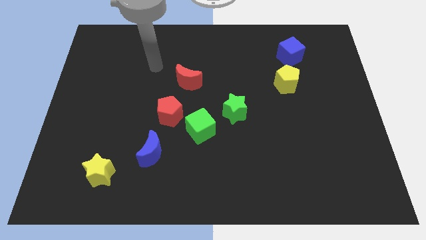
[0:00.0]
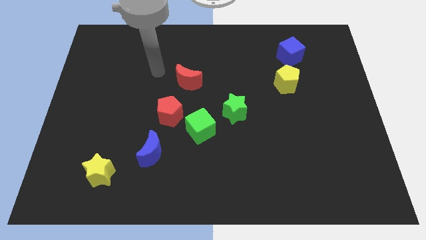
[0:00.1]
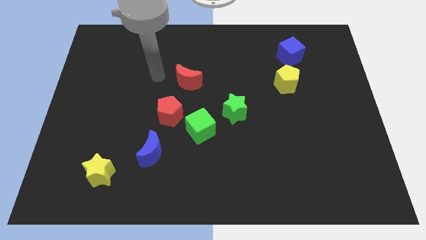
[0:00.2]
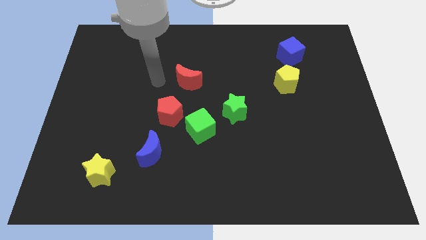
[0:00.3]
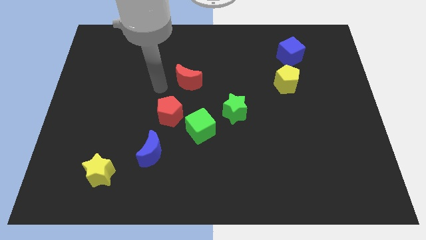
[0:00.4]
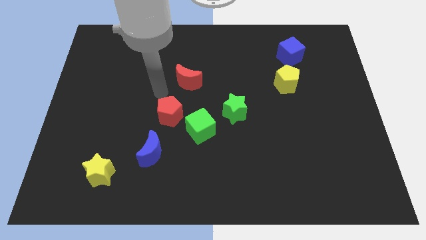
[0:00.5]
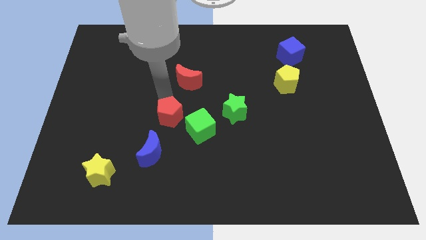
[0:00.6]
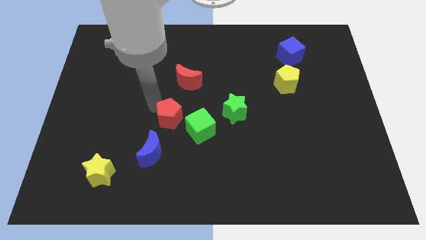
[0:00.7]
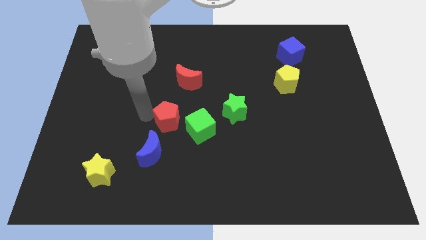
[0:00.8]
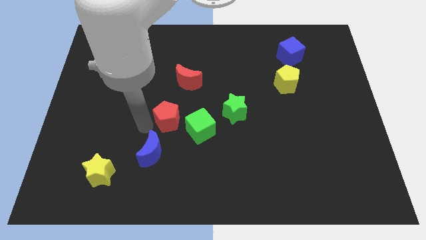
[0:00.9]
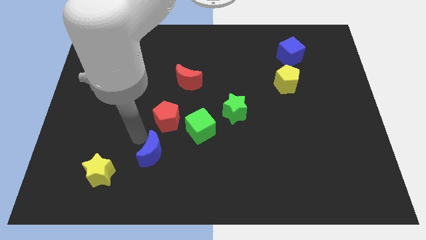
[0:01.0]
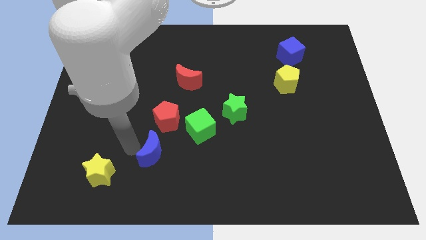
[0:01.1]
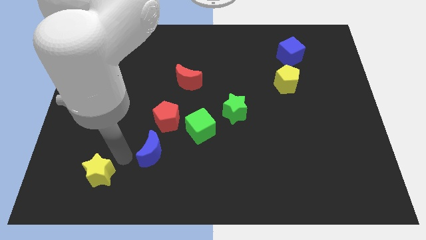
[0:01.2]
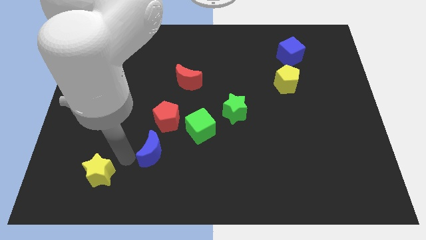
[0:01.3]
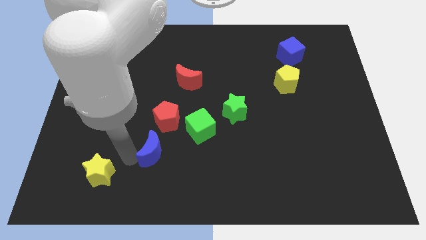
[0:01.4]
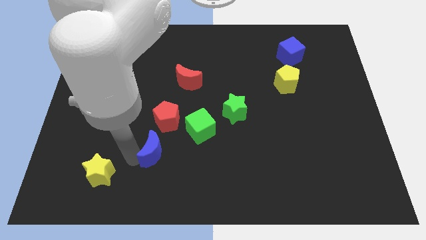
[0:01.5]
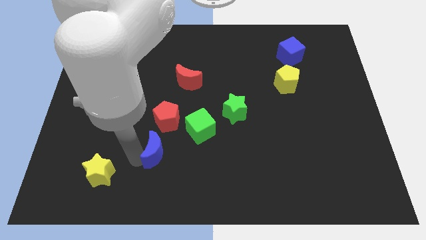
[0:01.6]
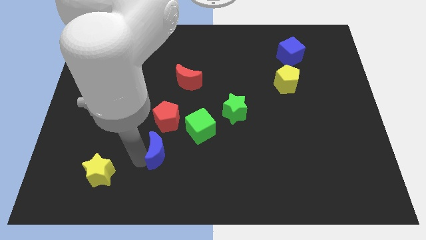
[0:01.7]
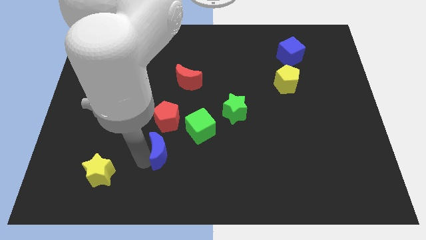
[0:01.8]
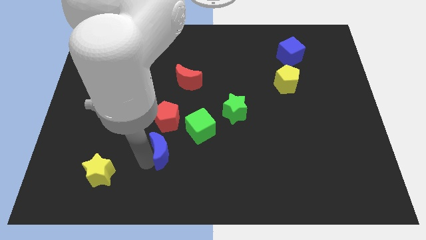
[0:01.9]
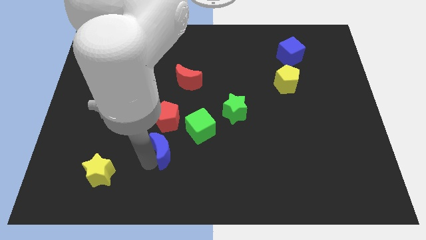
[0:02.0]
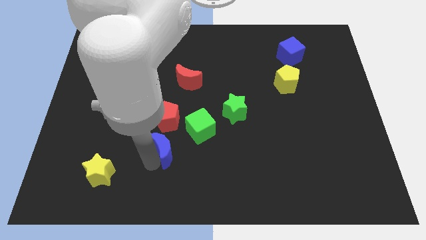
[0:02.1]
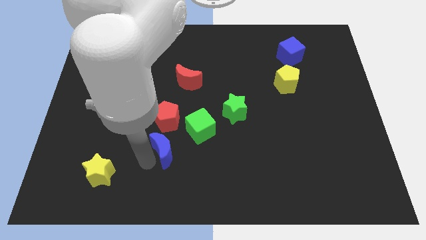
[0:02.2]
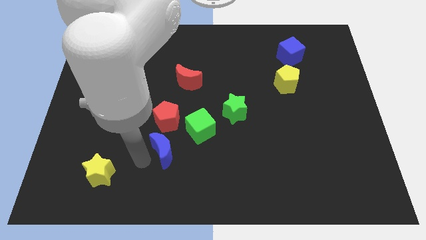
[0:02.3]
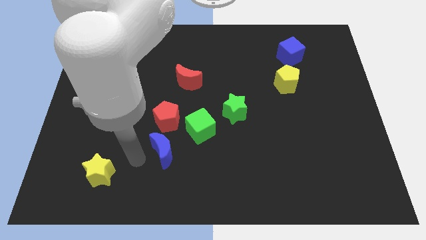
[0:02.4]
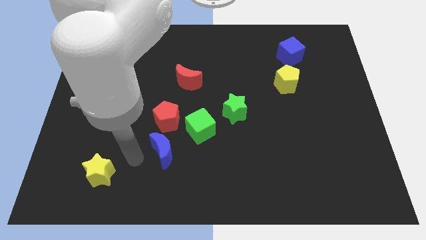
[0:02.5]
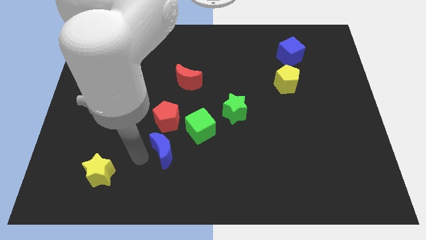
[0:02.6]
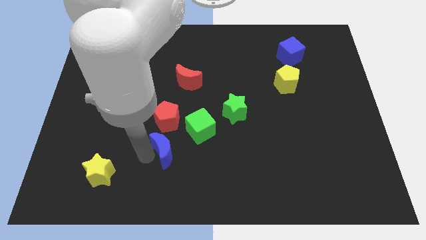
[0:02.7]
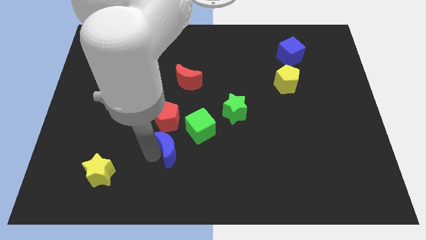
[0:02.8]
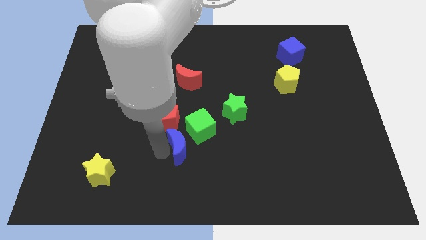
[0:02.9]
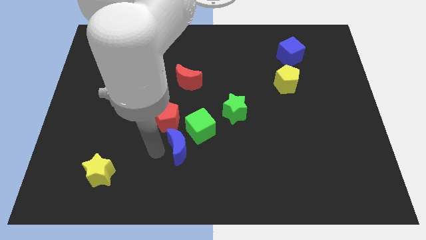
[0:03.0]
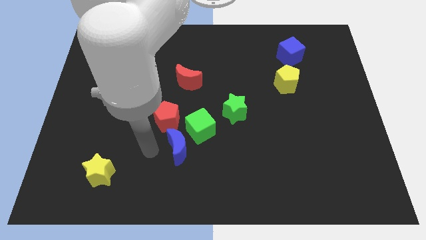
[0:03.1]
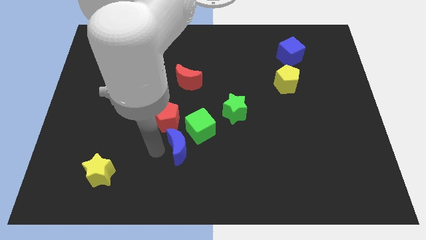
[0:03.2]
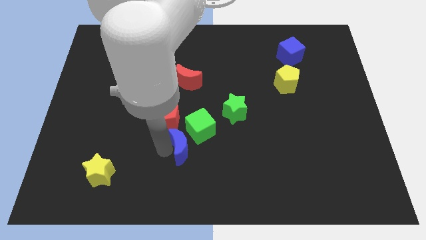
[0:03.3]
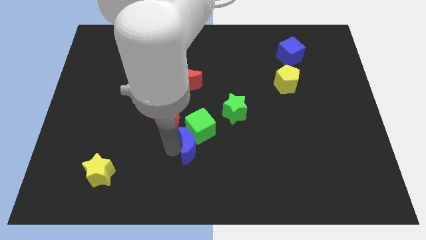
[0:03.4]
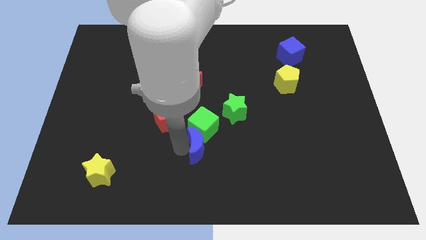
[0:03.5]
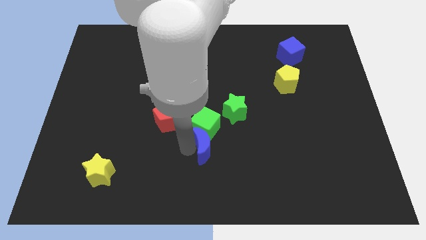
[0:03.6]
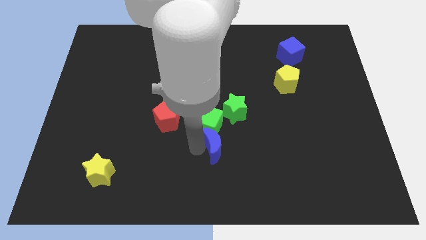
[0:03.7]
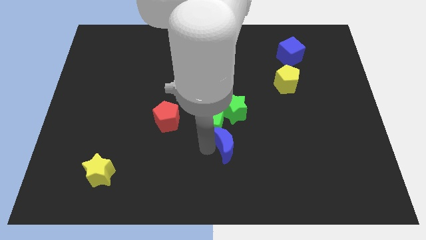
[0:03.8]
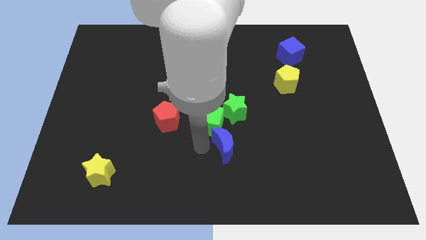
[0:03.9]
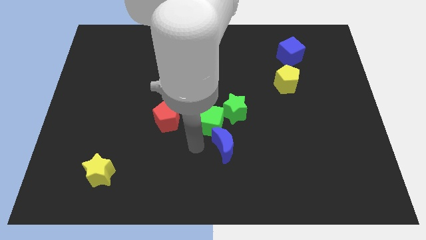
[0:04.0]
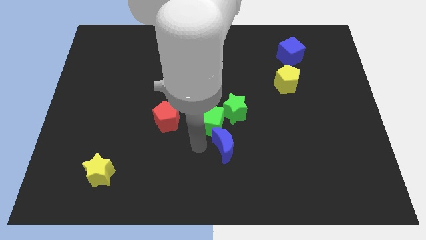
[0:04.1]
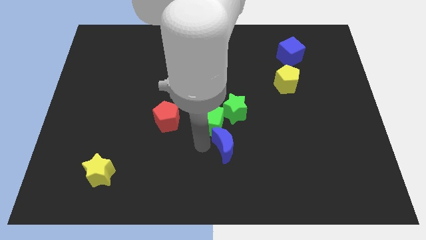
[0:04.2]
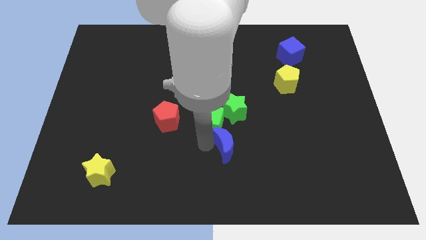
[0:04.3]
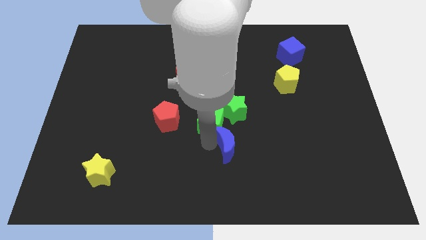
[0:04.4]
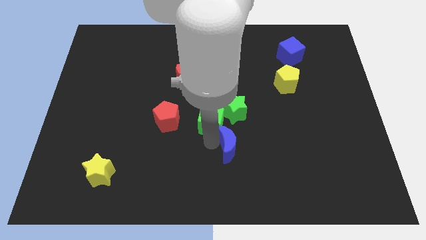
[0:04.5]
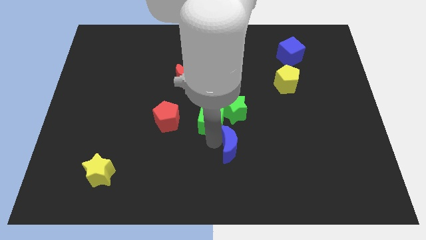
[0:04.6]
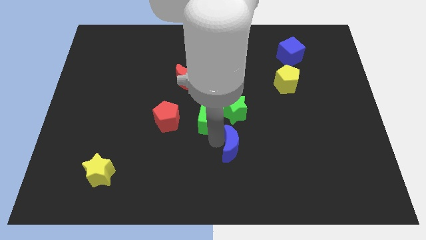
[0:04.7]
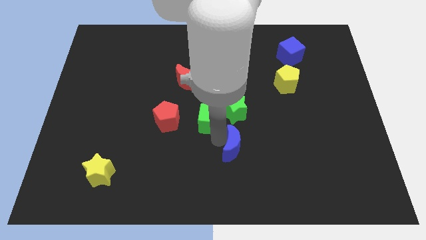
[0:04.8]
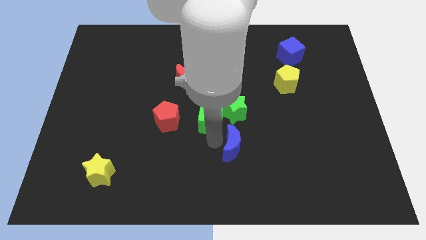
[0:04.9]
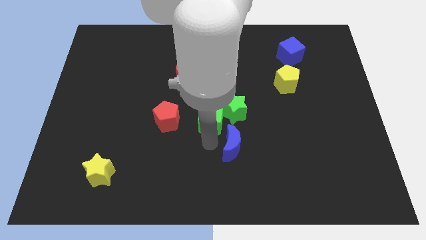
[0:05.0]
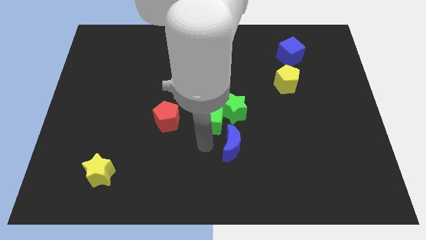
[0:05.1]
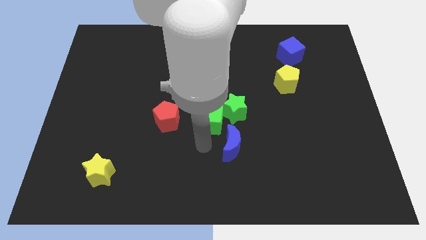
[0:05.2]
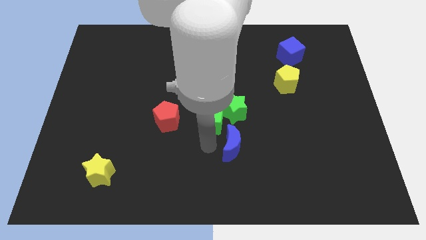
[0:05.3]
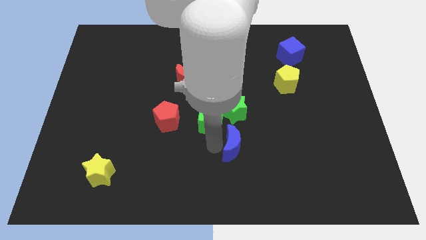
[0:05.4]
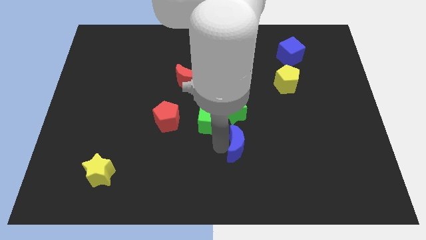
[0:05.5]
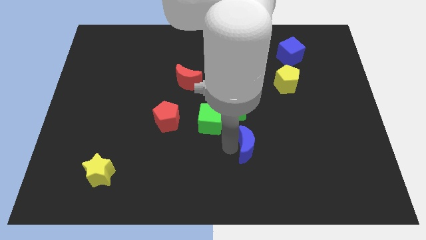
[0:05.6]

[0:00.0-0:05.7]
slide the blue moon right

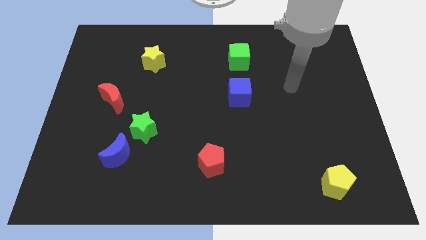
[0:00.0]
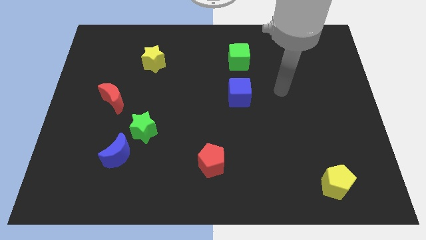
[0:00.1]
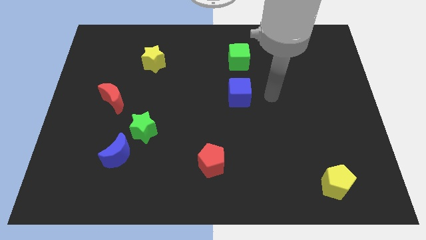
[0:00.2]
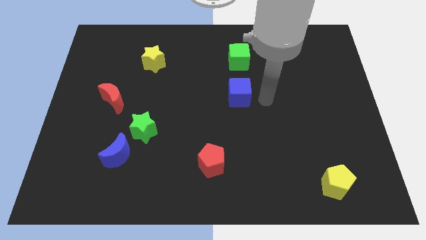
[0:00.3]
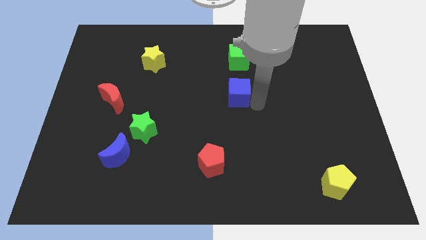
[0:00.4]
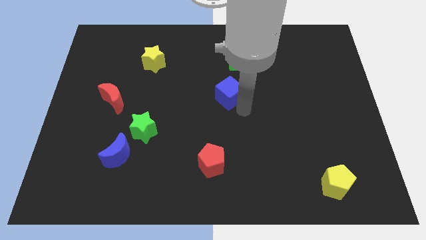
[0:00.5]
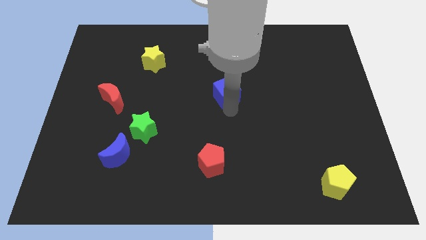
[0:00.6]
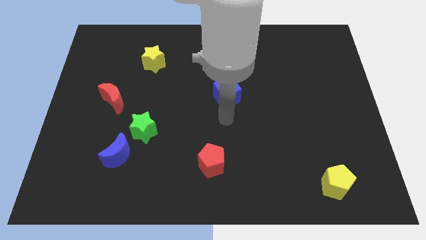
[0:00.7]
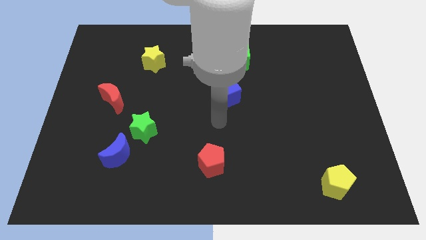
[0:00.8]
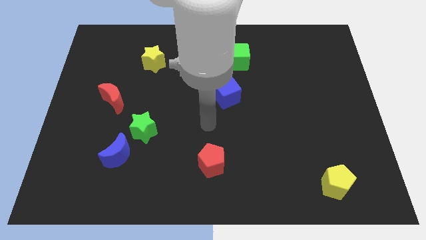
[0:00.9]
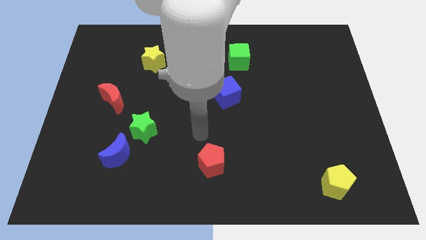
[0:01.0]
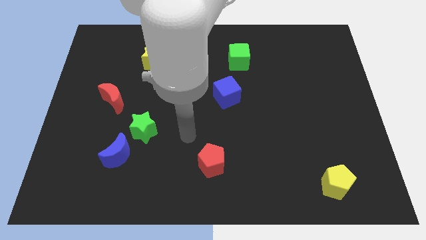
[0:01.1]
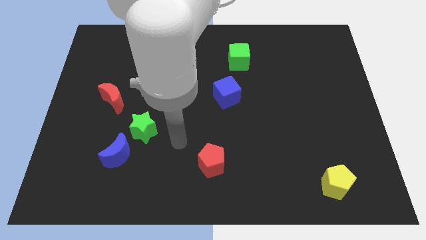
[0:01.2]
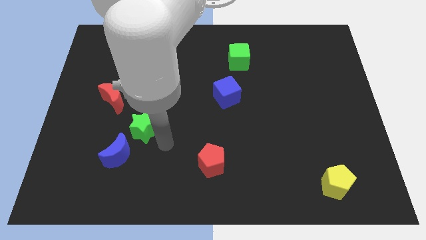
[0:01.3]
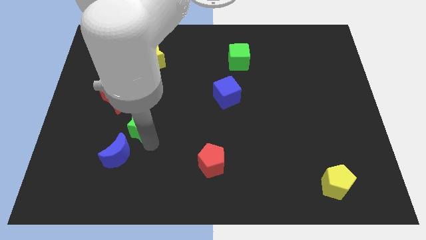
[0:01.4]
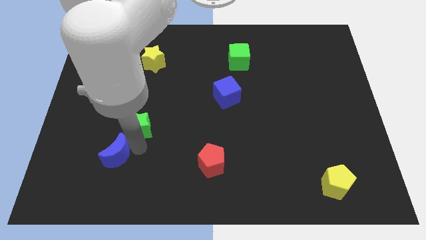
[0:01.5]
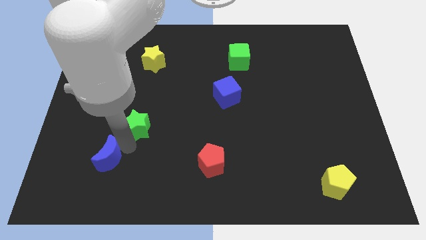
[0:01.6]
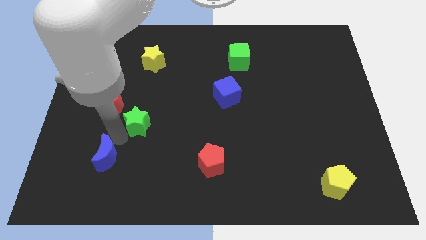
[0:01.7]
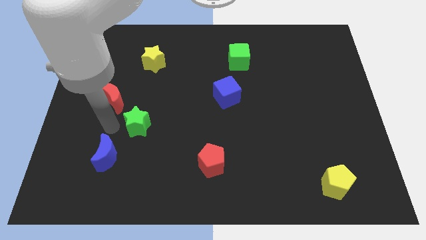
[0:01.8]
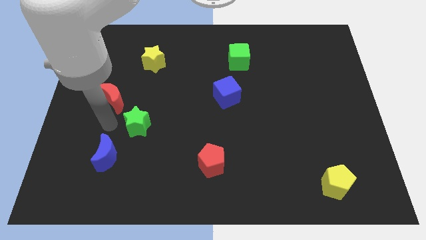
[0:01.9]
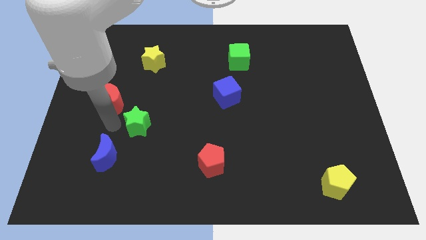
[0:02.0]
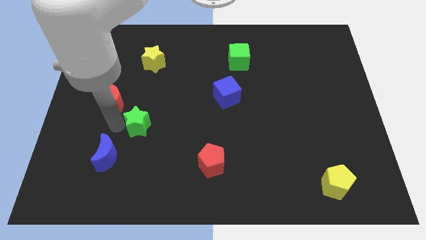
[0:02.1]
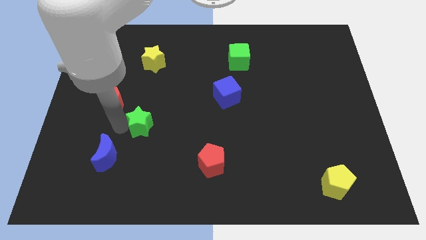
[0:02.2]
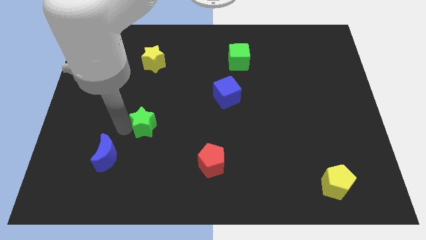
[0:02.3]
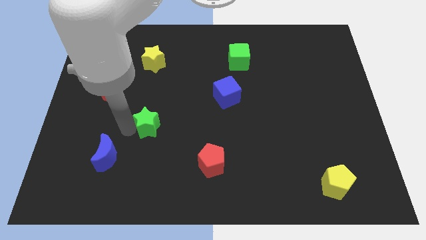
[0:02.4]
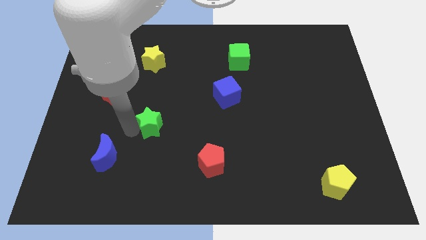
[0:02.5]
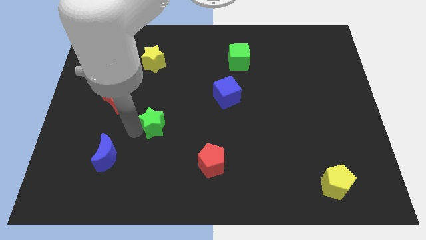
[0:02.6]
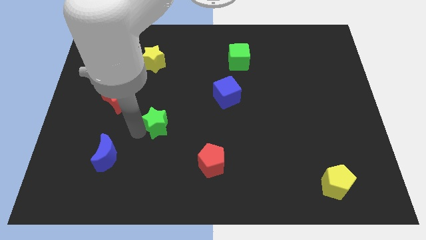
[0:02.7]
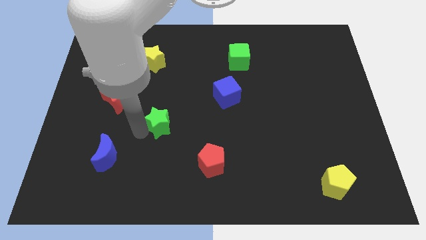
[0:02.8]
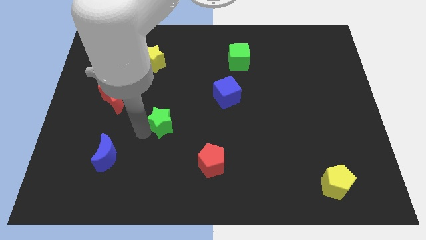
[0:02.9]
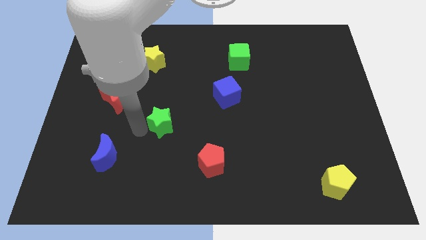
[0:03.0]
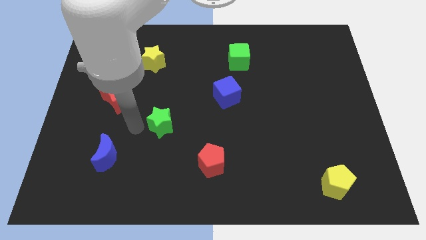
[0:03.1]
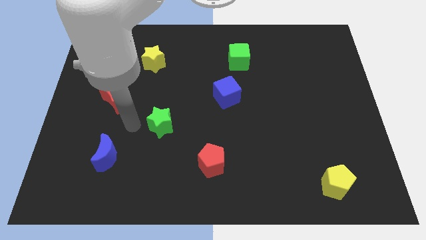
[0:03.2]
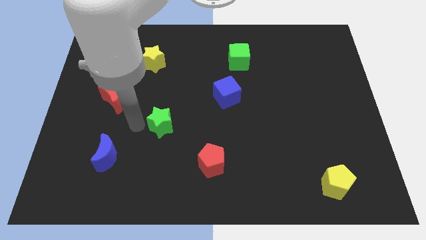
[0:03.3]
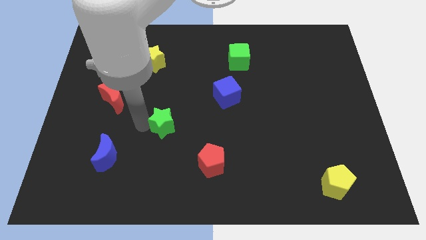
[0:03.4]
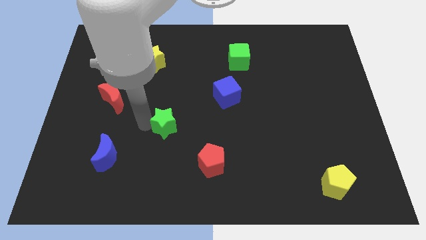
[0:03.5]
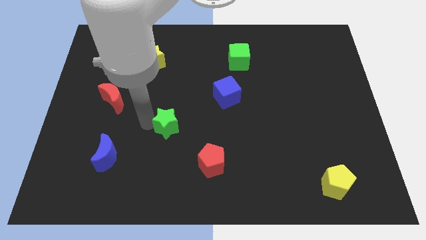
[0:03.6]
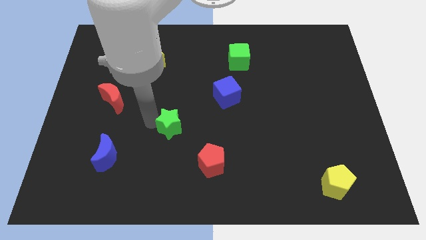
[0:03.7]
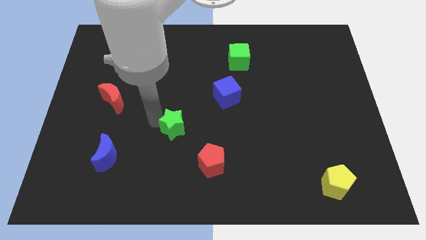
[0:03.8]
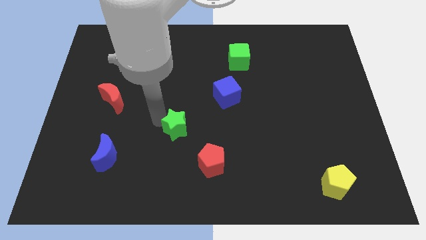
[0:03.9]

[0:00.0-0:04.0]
move the green star to the right a bit
